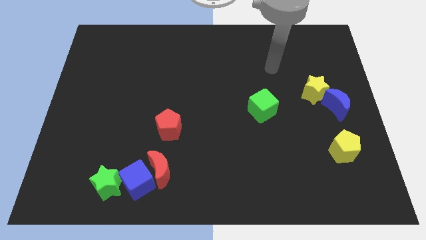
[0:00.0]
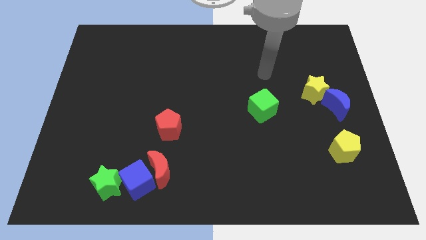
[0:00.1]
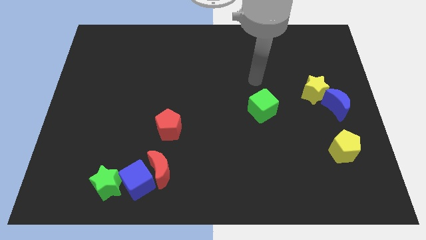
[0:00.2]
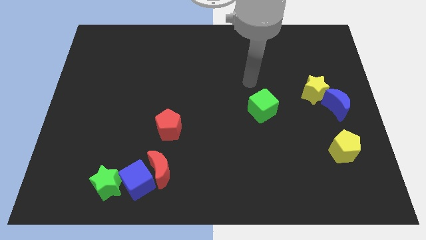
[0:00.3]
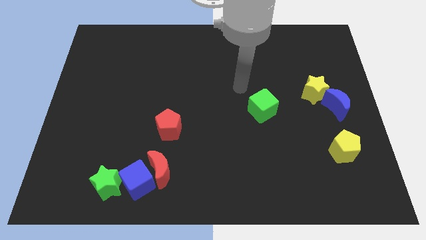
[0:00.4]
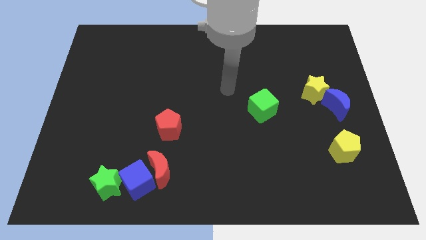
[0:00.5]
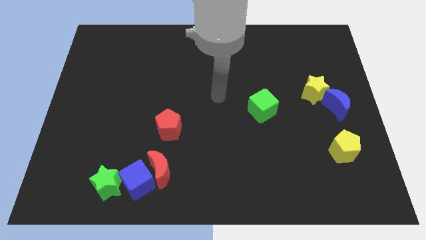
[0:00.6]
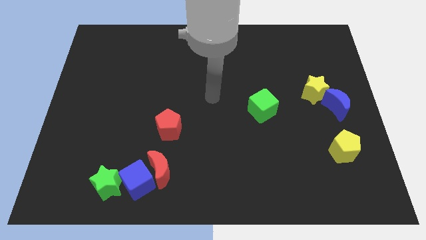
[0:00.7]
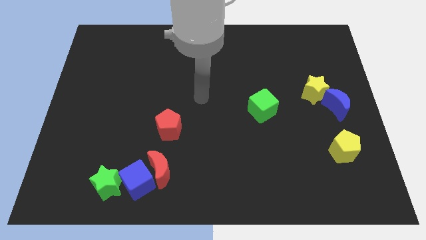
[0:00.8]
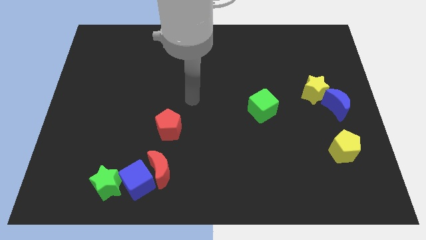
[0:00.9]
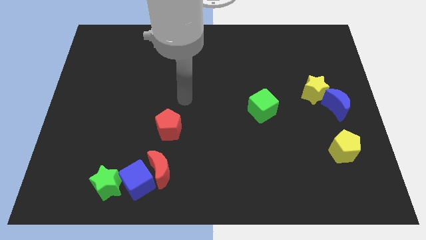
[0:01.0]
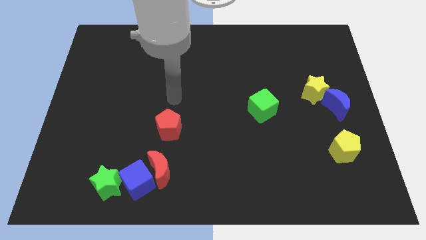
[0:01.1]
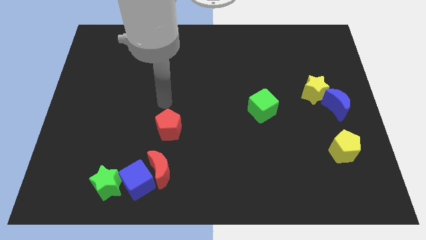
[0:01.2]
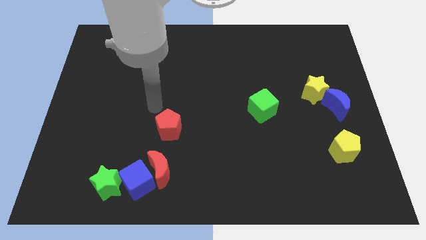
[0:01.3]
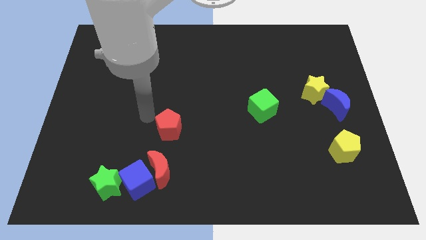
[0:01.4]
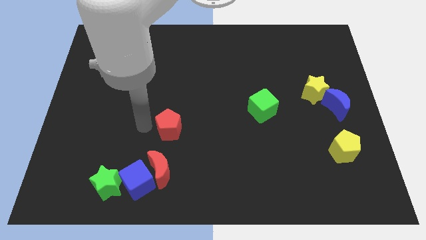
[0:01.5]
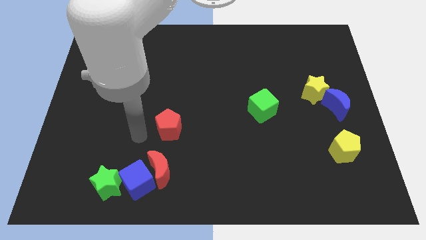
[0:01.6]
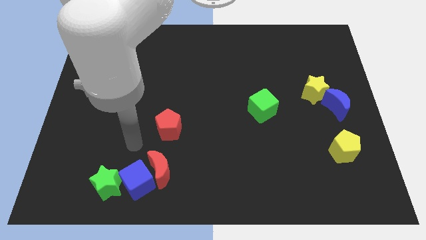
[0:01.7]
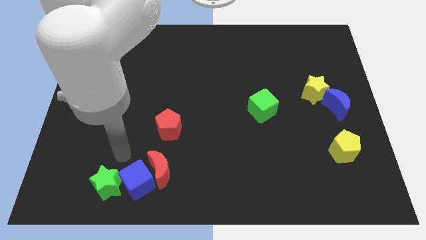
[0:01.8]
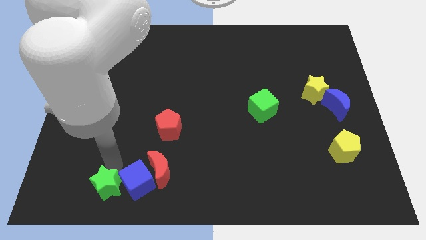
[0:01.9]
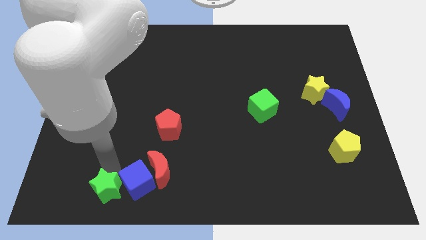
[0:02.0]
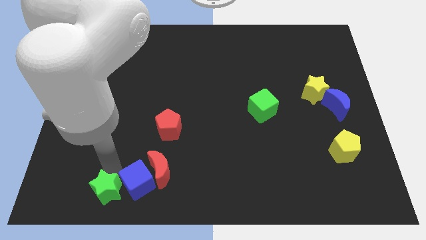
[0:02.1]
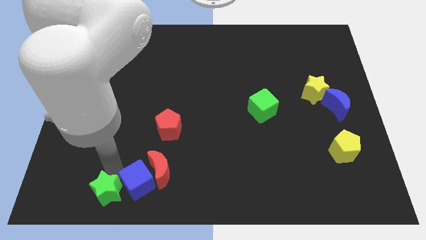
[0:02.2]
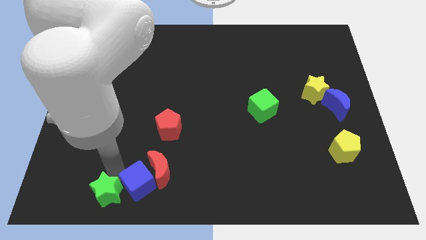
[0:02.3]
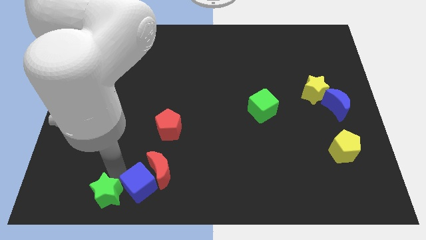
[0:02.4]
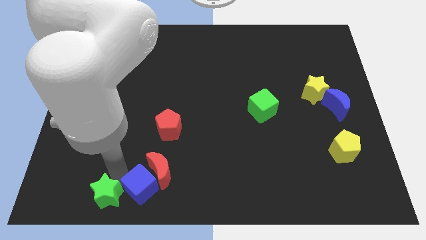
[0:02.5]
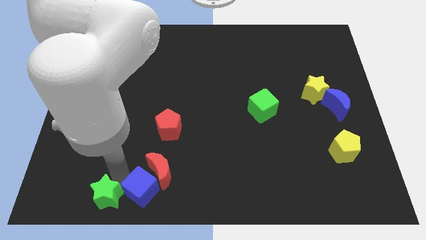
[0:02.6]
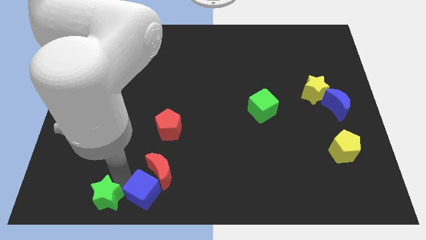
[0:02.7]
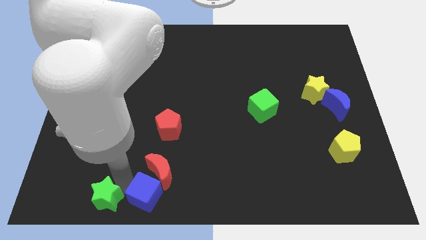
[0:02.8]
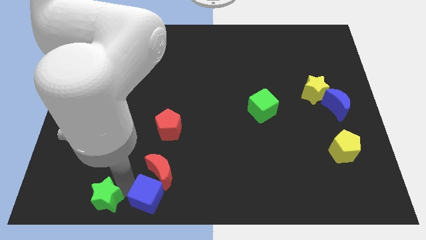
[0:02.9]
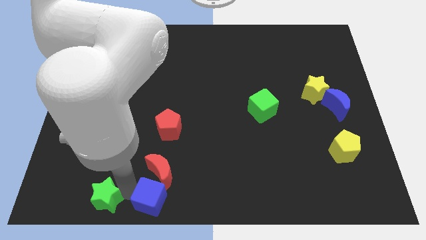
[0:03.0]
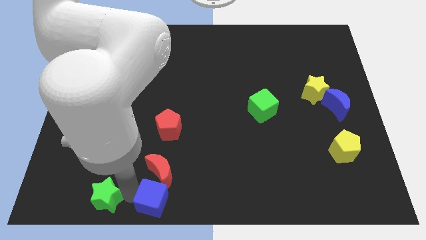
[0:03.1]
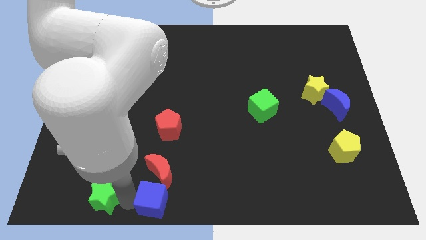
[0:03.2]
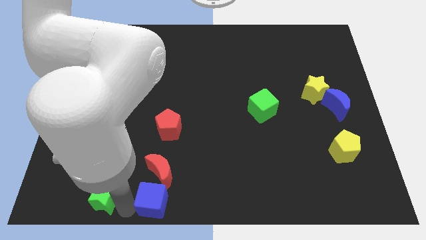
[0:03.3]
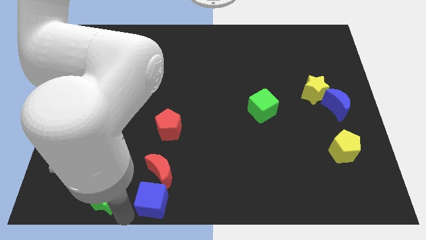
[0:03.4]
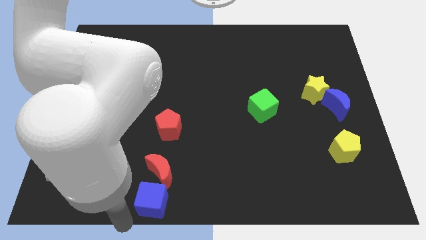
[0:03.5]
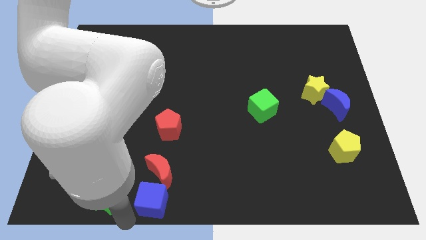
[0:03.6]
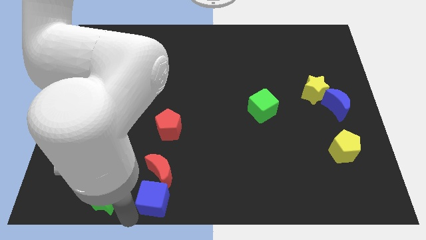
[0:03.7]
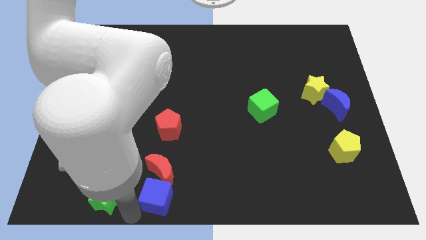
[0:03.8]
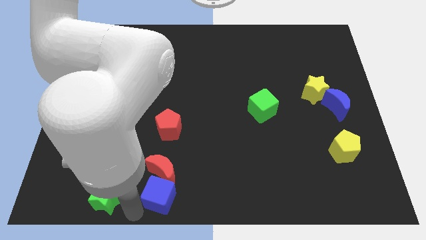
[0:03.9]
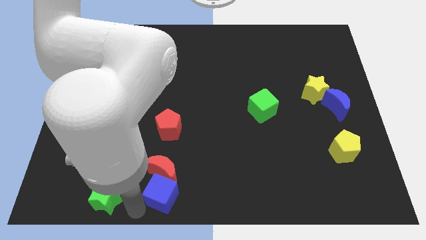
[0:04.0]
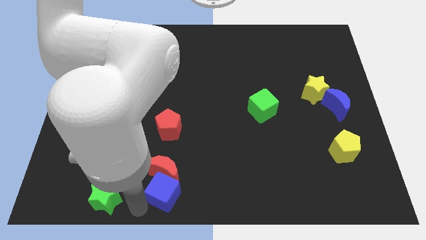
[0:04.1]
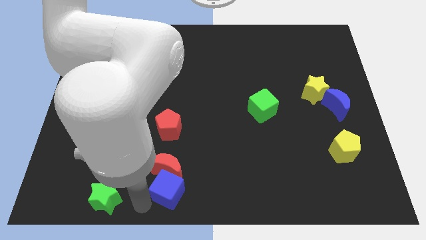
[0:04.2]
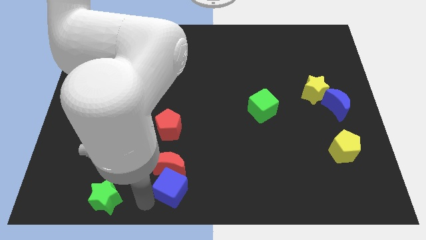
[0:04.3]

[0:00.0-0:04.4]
move the blue cube right a bit

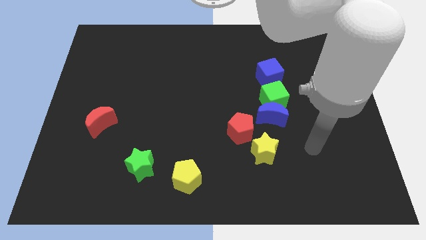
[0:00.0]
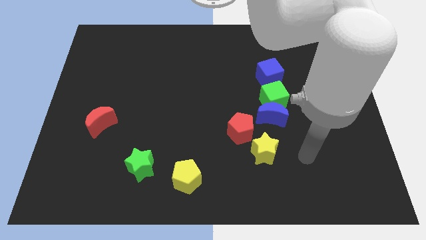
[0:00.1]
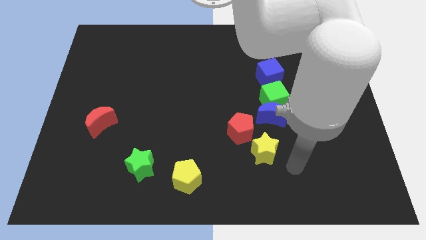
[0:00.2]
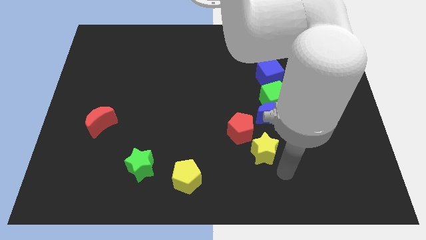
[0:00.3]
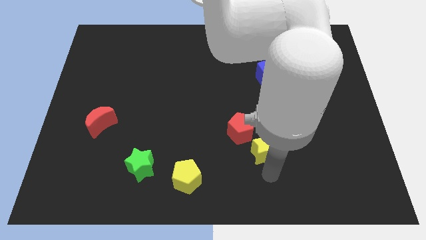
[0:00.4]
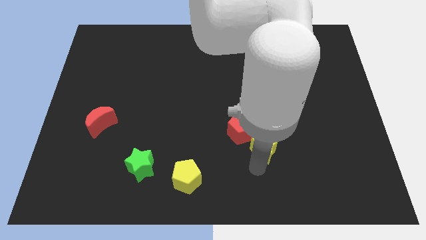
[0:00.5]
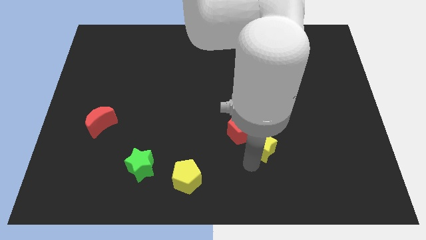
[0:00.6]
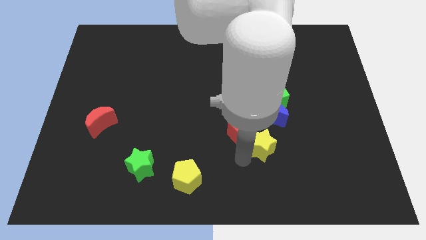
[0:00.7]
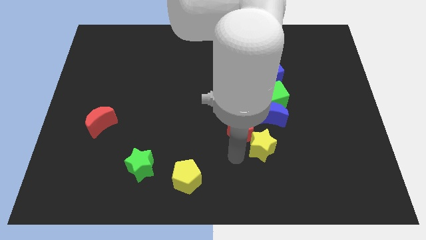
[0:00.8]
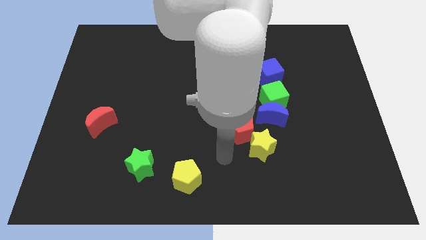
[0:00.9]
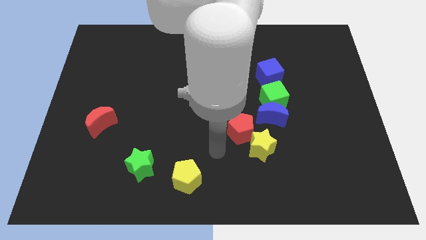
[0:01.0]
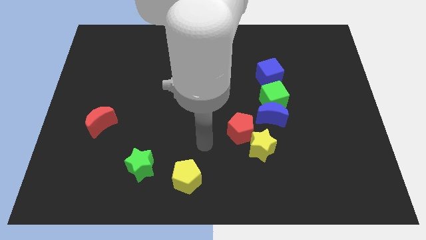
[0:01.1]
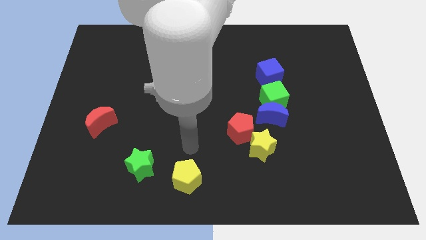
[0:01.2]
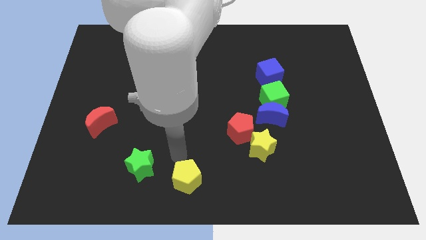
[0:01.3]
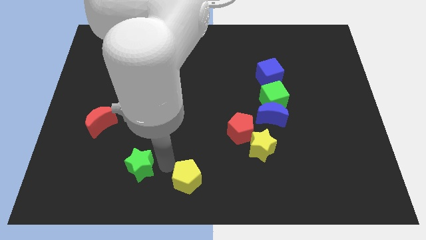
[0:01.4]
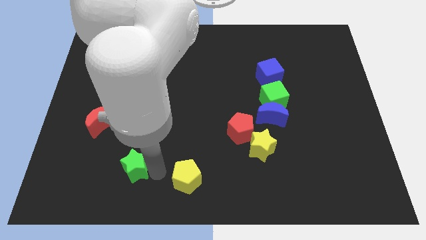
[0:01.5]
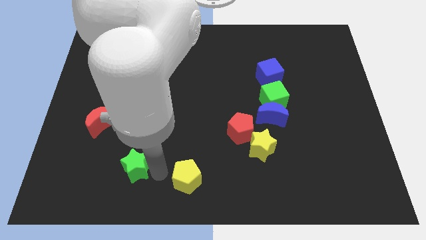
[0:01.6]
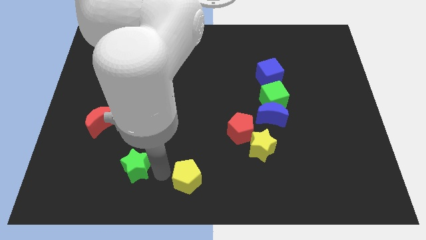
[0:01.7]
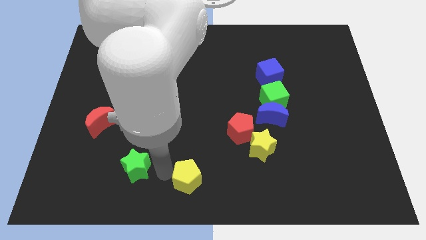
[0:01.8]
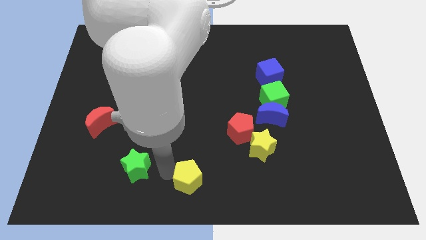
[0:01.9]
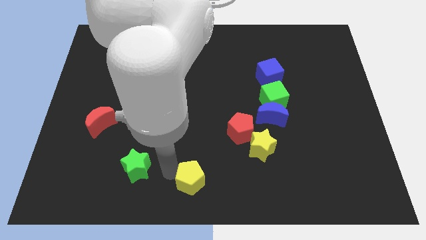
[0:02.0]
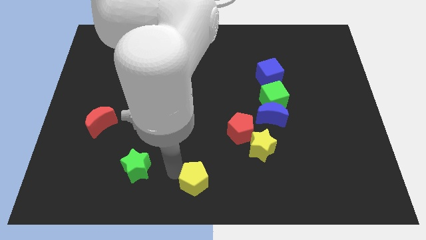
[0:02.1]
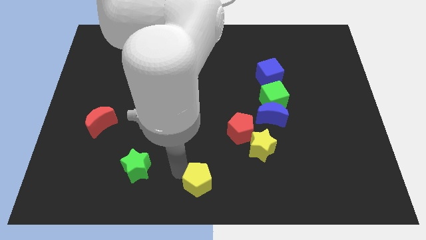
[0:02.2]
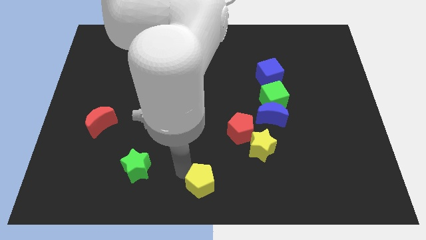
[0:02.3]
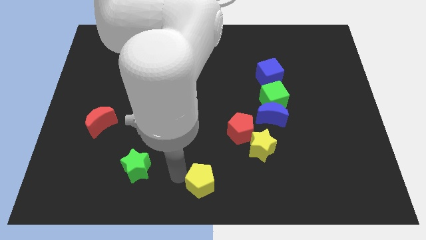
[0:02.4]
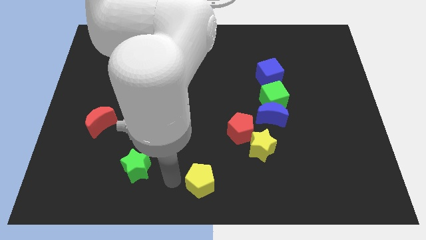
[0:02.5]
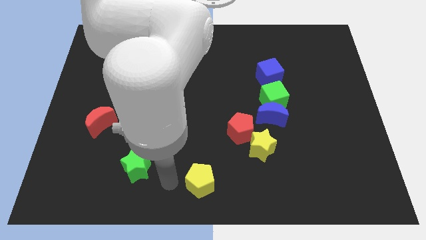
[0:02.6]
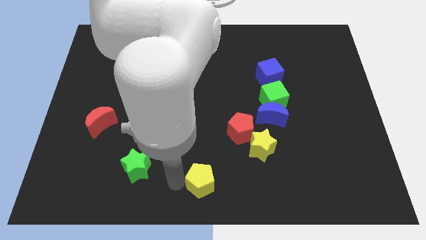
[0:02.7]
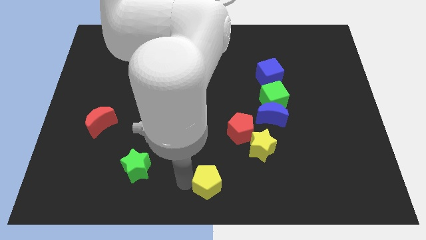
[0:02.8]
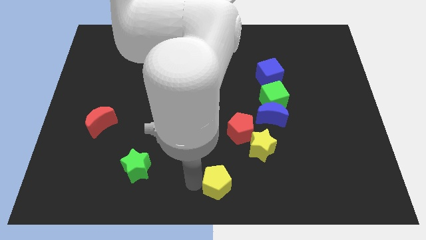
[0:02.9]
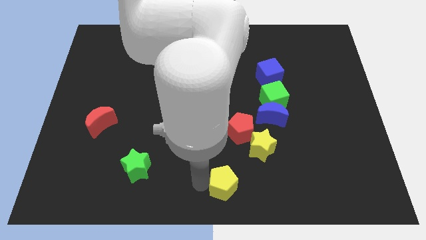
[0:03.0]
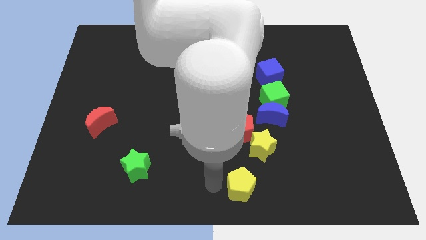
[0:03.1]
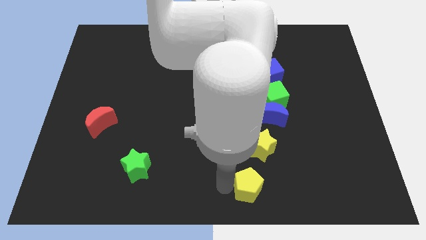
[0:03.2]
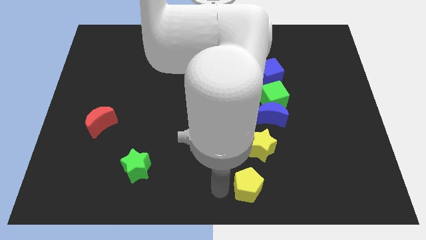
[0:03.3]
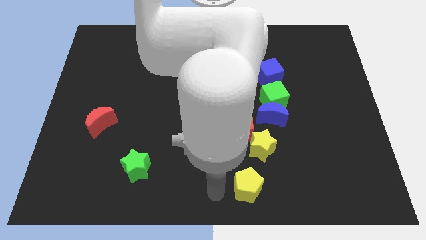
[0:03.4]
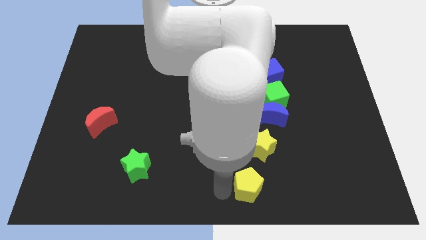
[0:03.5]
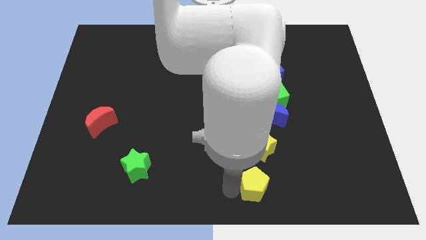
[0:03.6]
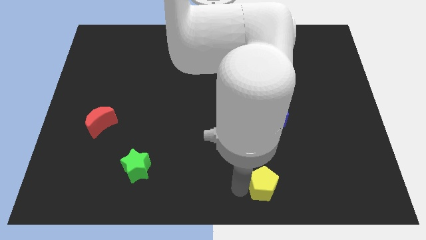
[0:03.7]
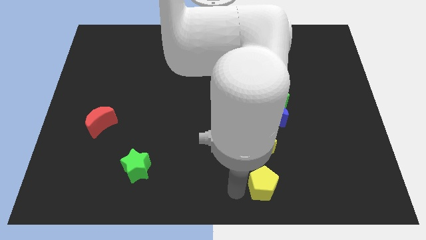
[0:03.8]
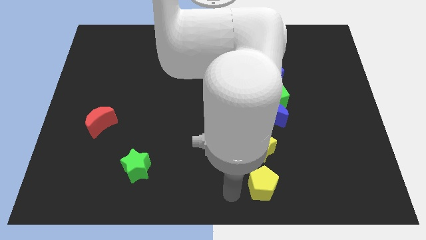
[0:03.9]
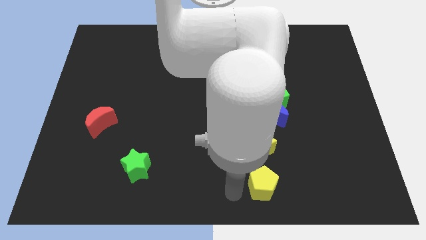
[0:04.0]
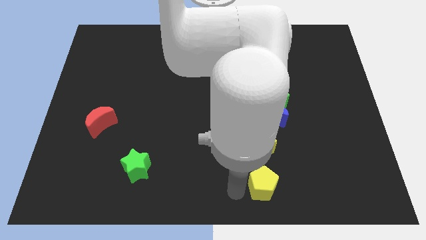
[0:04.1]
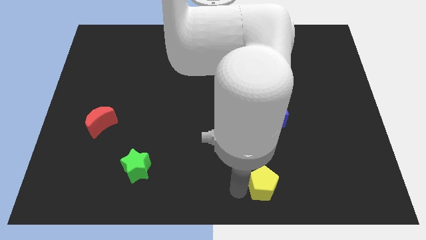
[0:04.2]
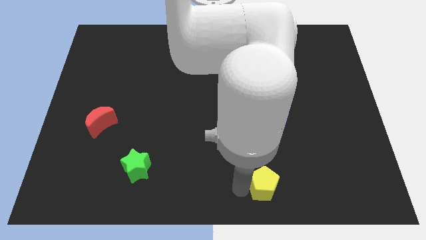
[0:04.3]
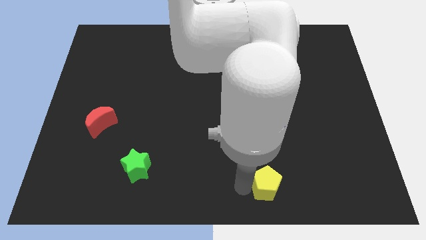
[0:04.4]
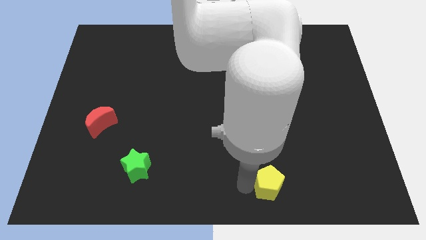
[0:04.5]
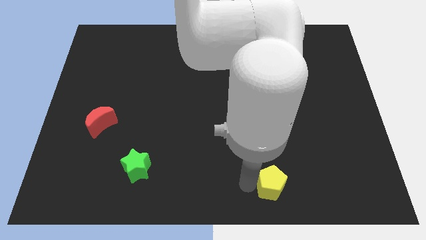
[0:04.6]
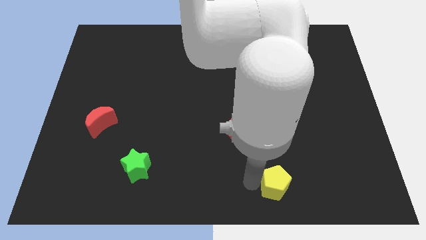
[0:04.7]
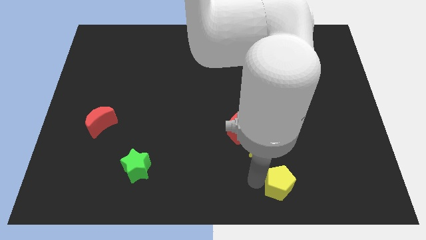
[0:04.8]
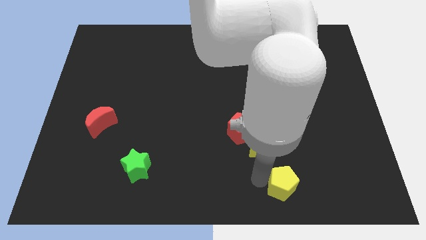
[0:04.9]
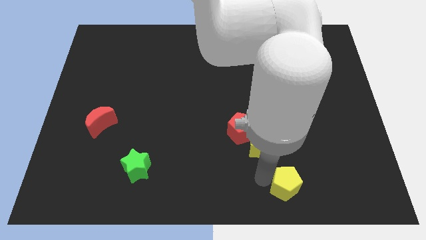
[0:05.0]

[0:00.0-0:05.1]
move the yellow pentagon to the right
